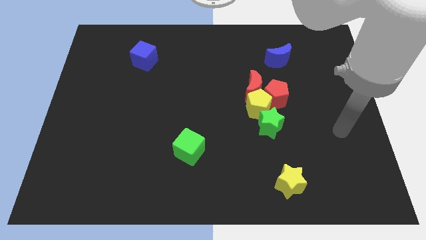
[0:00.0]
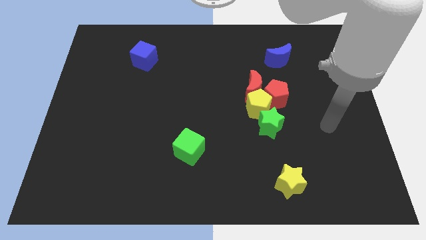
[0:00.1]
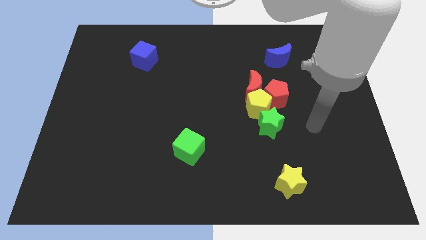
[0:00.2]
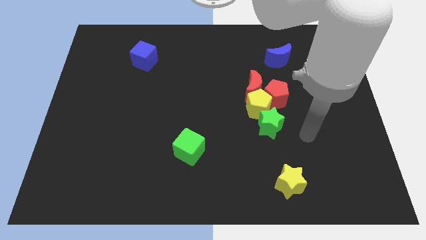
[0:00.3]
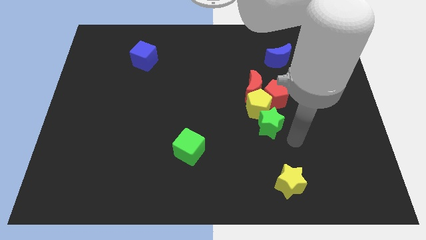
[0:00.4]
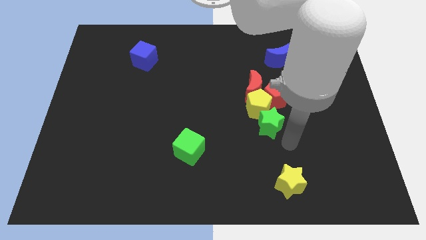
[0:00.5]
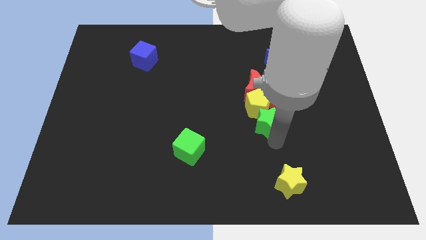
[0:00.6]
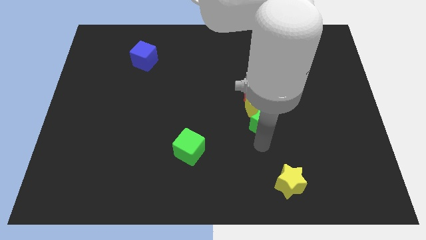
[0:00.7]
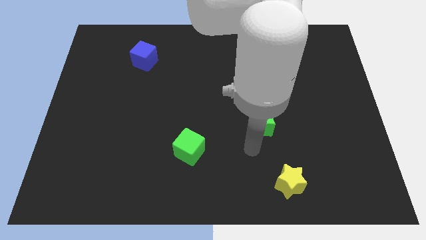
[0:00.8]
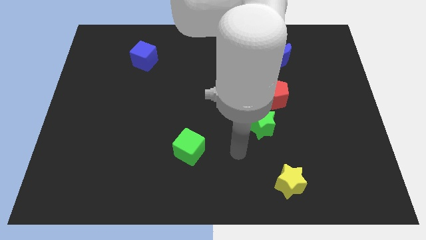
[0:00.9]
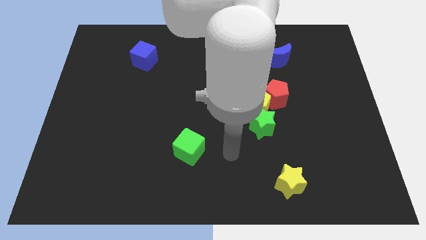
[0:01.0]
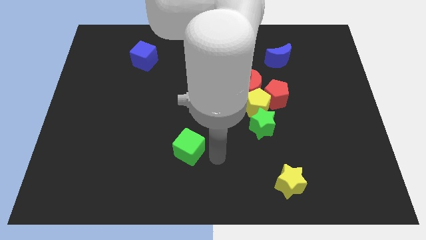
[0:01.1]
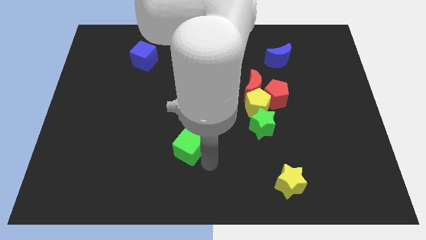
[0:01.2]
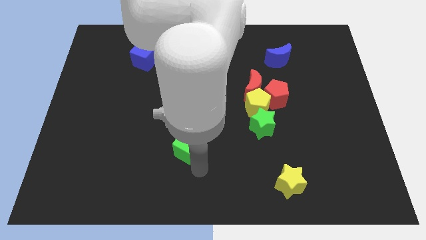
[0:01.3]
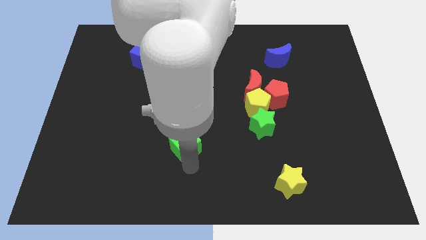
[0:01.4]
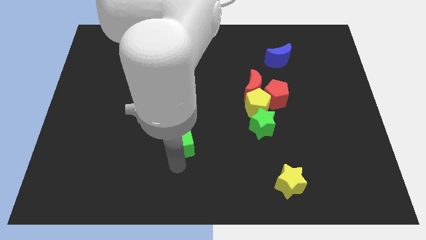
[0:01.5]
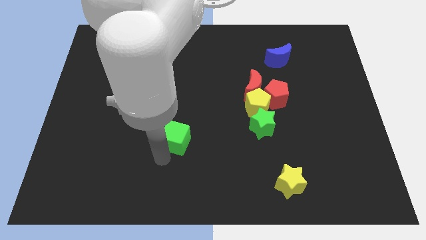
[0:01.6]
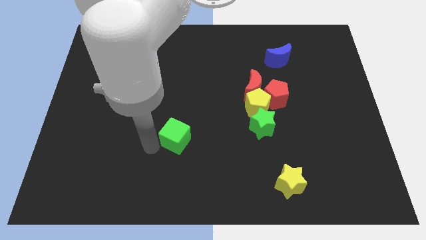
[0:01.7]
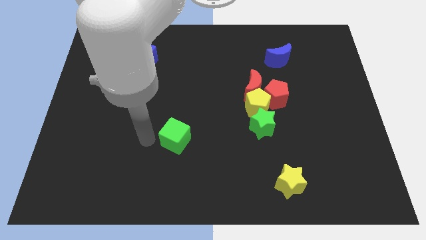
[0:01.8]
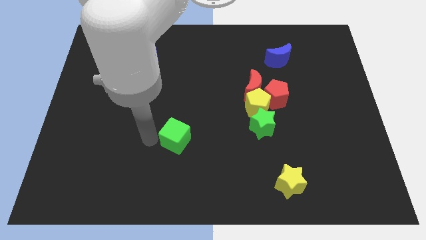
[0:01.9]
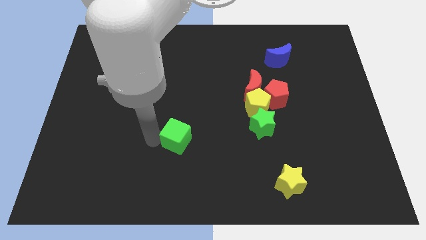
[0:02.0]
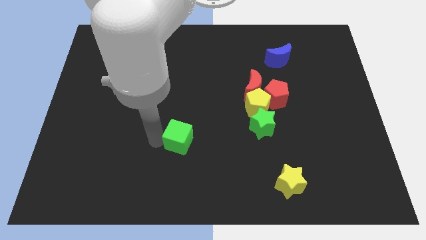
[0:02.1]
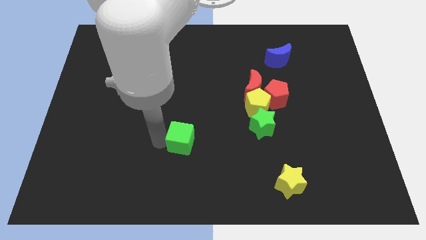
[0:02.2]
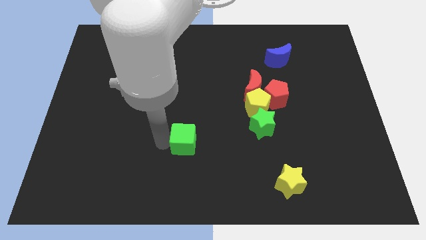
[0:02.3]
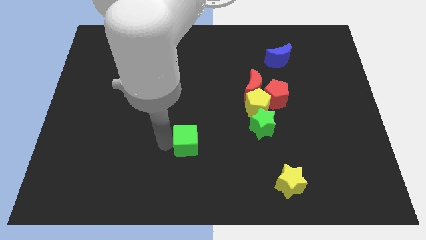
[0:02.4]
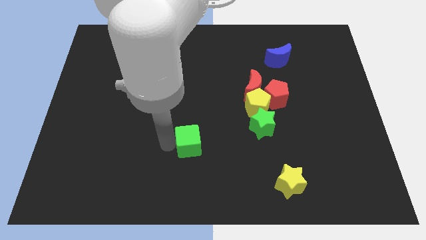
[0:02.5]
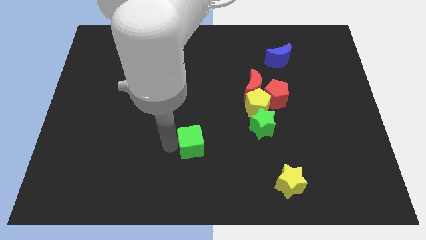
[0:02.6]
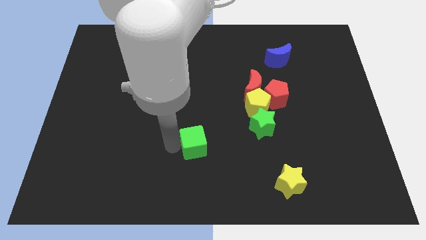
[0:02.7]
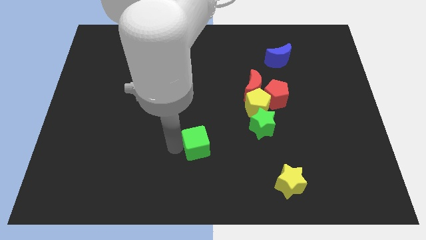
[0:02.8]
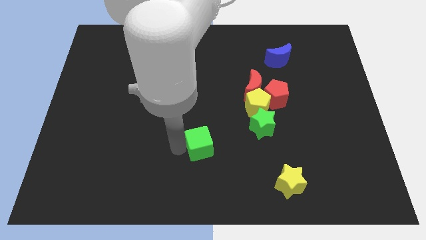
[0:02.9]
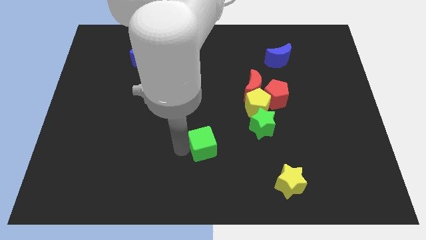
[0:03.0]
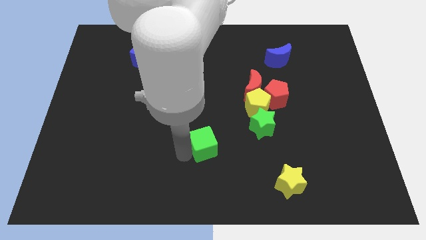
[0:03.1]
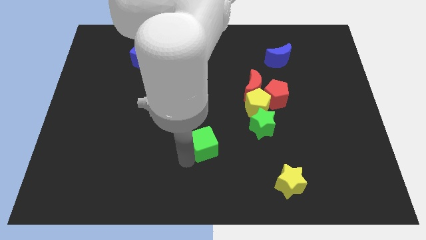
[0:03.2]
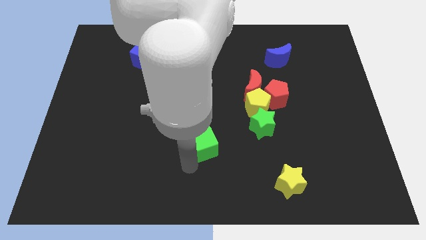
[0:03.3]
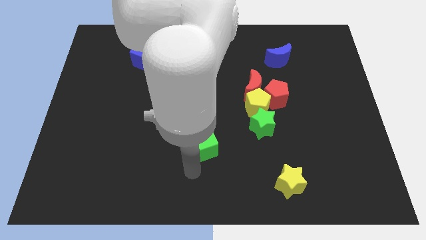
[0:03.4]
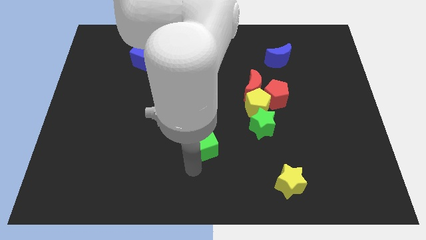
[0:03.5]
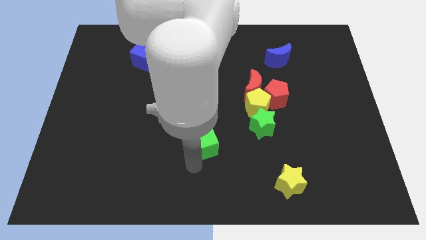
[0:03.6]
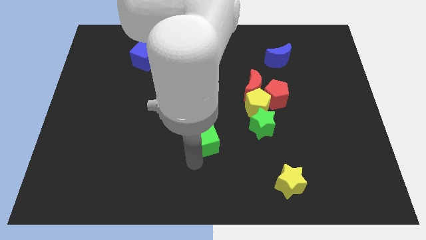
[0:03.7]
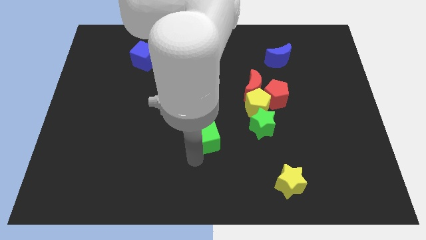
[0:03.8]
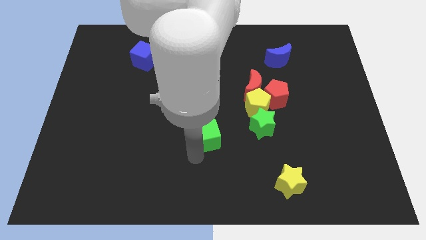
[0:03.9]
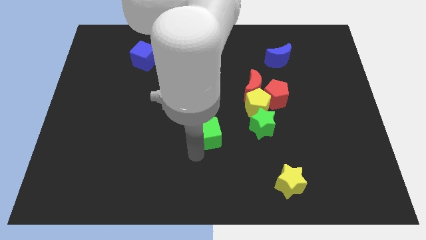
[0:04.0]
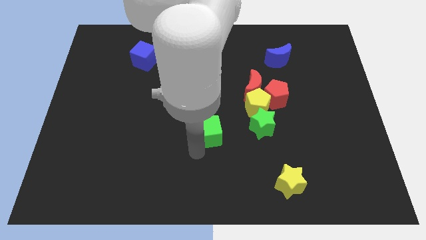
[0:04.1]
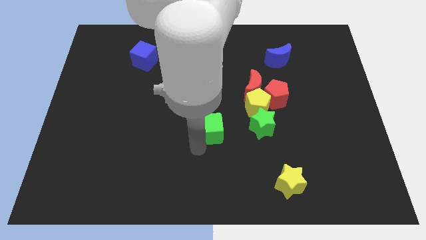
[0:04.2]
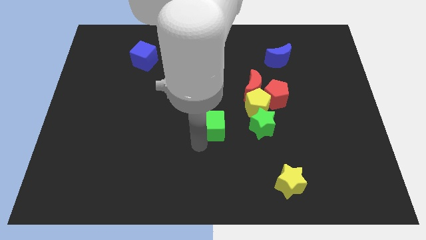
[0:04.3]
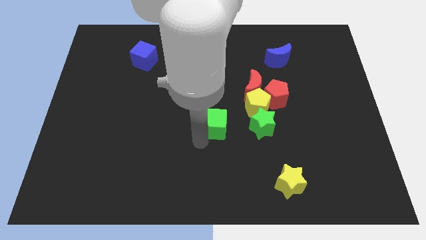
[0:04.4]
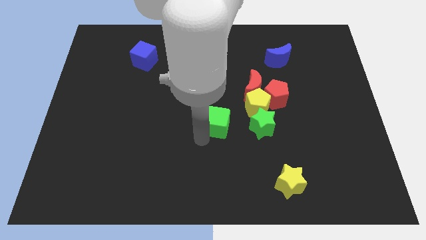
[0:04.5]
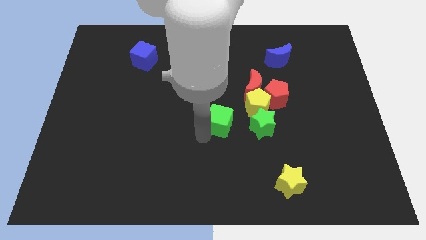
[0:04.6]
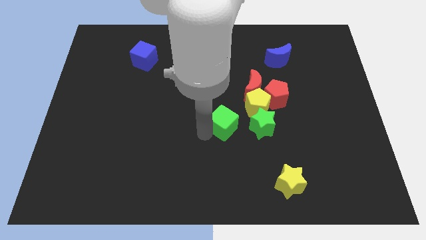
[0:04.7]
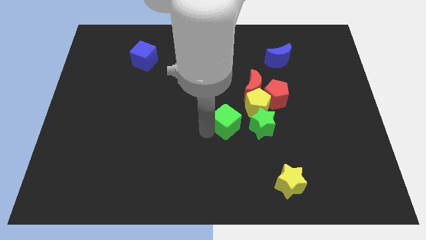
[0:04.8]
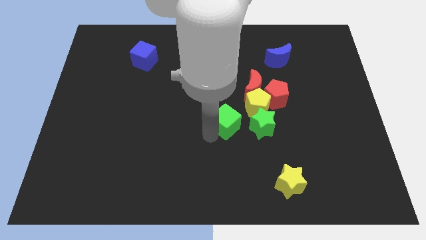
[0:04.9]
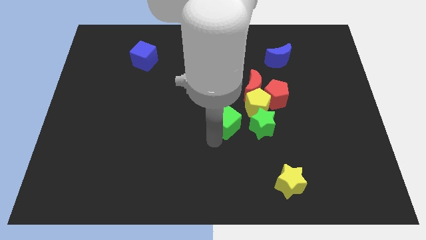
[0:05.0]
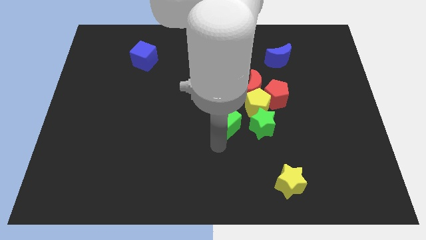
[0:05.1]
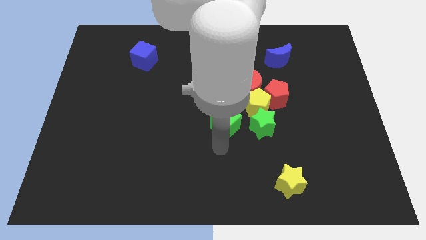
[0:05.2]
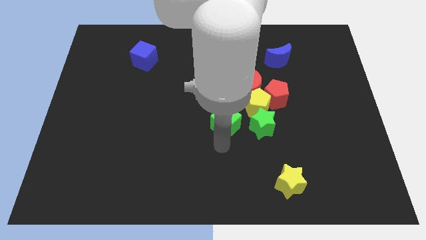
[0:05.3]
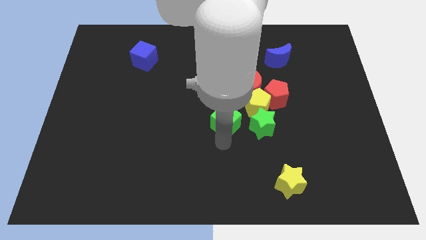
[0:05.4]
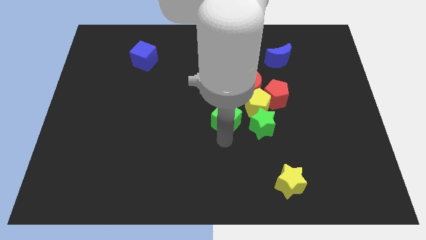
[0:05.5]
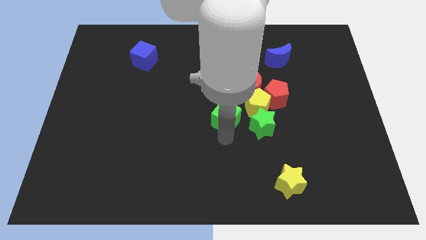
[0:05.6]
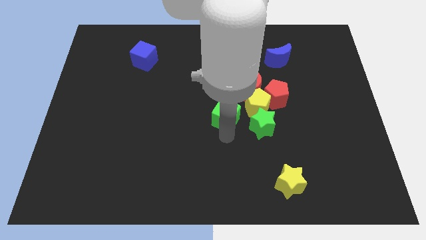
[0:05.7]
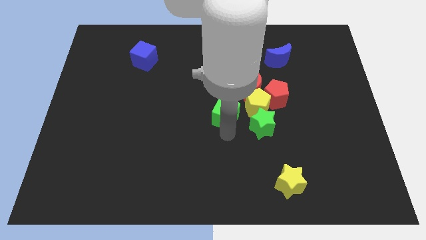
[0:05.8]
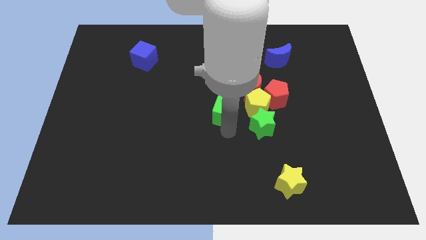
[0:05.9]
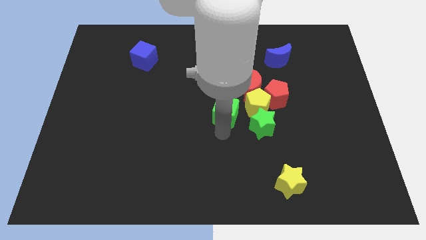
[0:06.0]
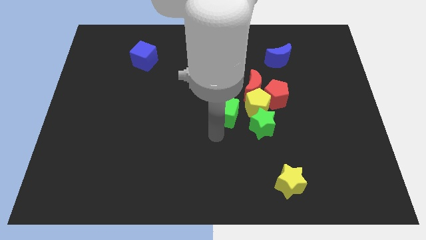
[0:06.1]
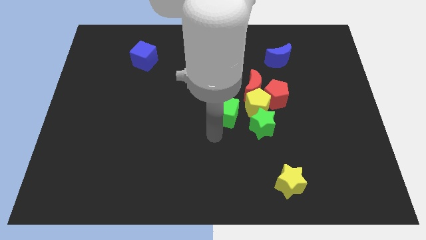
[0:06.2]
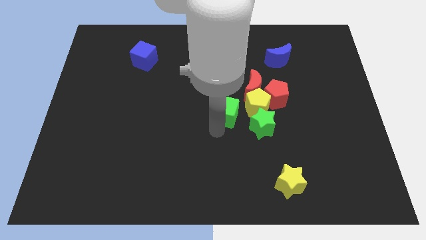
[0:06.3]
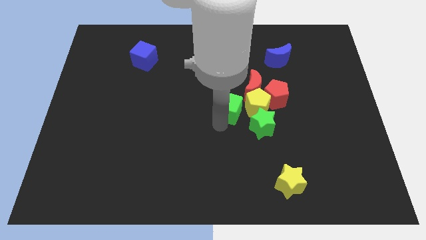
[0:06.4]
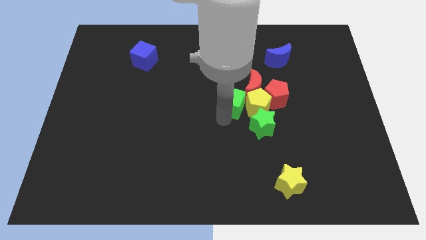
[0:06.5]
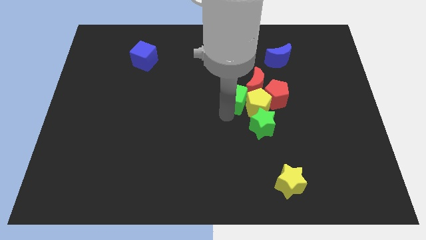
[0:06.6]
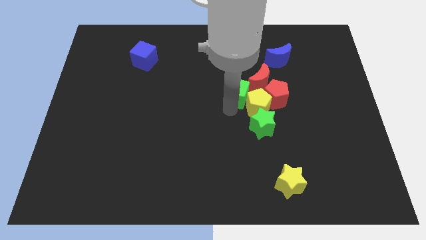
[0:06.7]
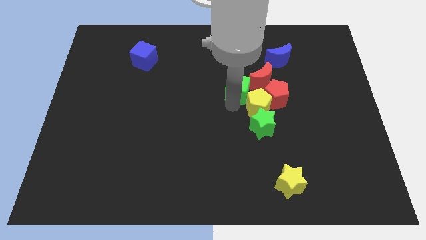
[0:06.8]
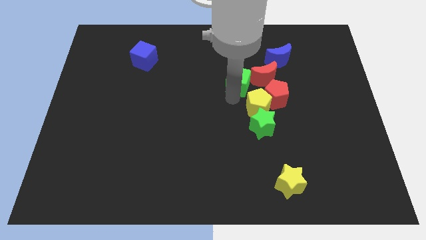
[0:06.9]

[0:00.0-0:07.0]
move the green cube up and then right

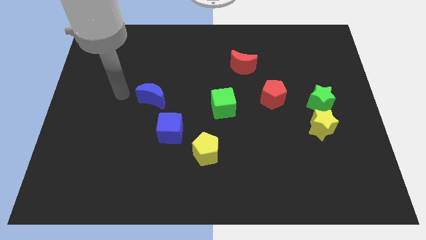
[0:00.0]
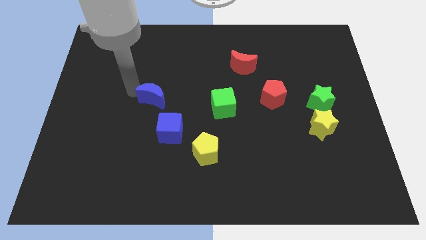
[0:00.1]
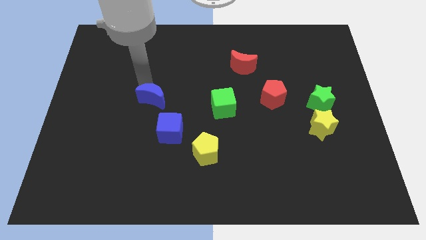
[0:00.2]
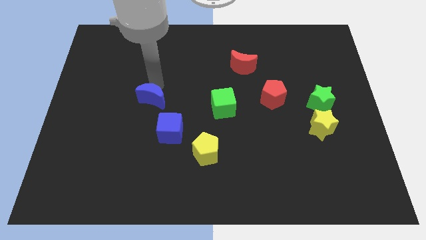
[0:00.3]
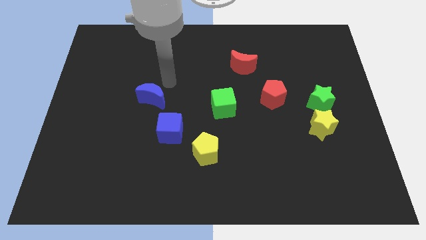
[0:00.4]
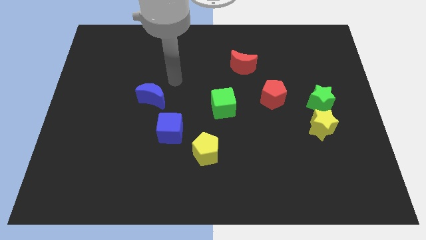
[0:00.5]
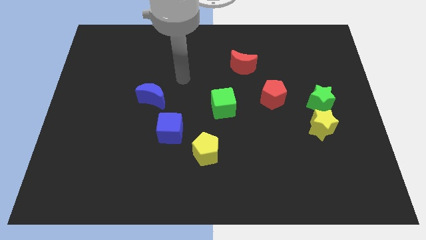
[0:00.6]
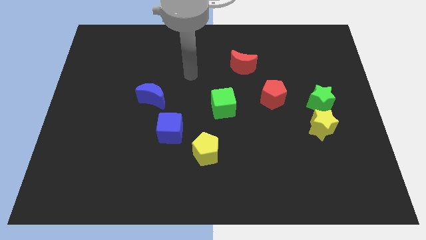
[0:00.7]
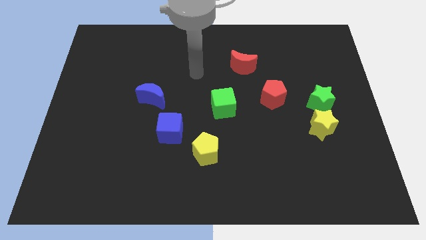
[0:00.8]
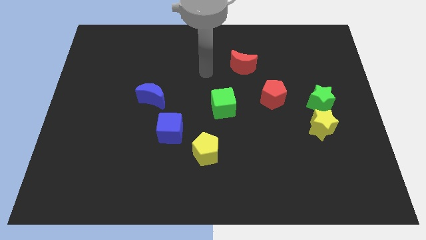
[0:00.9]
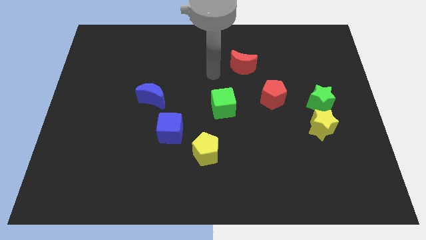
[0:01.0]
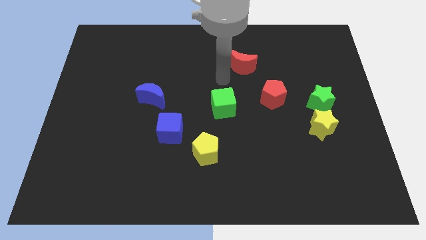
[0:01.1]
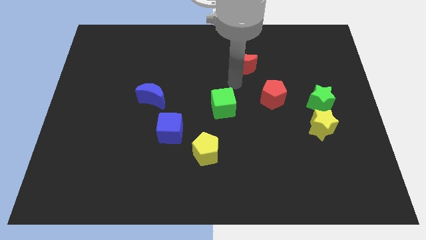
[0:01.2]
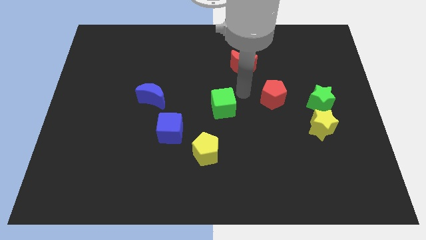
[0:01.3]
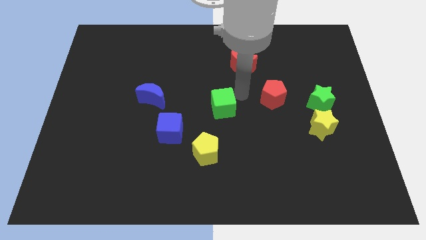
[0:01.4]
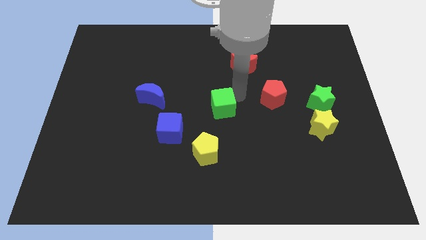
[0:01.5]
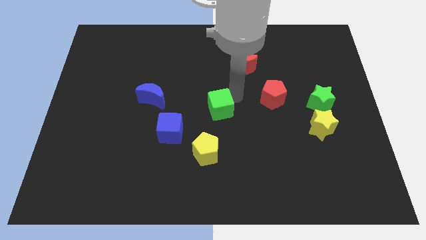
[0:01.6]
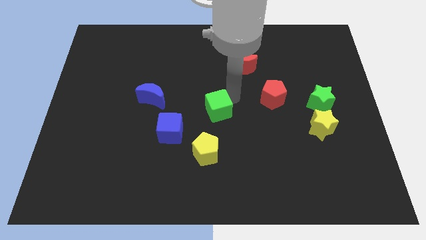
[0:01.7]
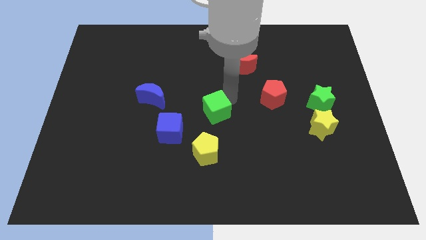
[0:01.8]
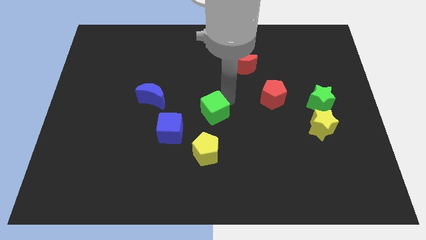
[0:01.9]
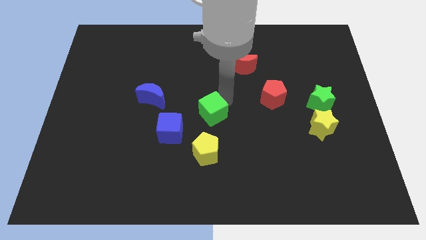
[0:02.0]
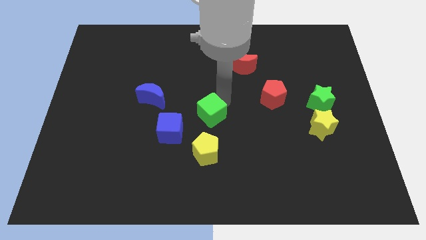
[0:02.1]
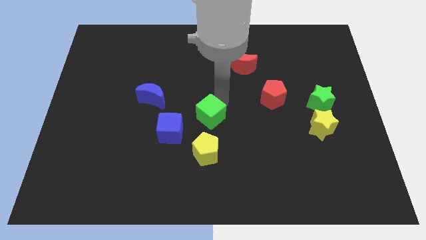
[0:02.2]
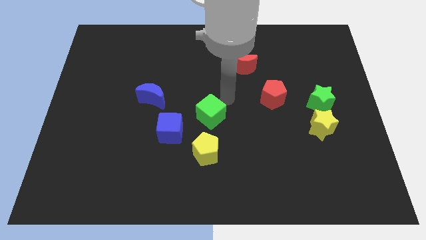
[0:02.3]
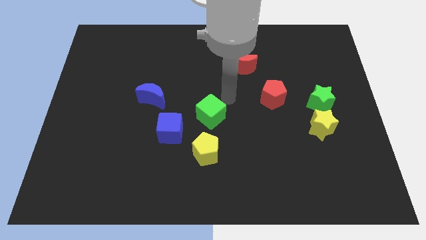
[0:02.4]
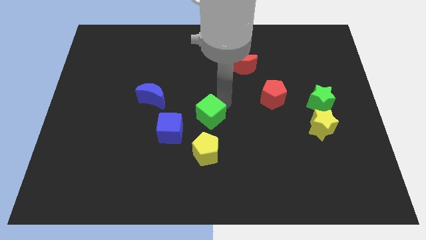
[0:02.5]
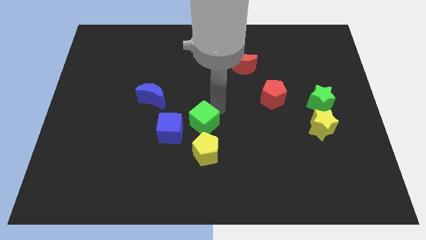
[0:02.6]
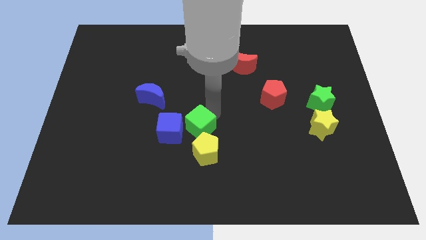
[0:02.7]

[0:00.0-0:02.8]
slightly move the green cube diagonally down and left
